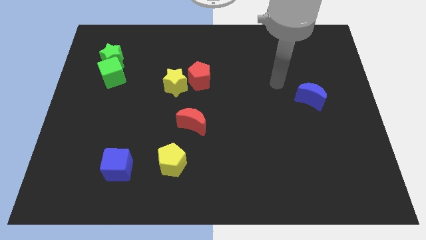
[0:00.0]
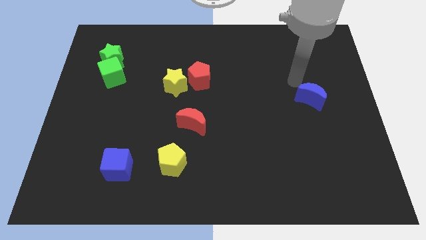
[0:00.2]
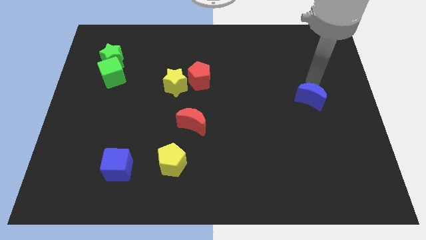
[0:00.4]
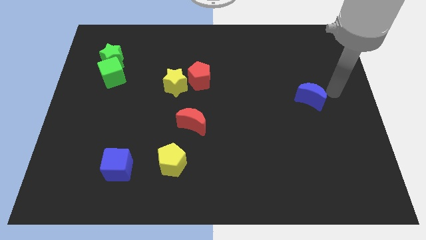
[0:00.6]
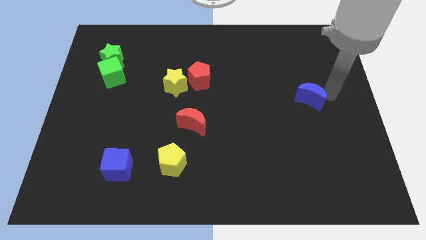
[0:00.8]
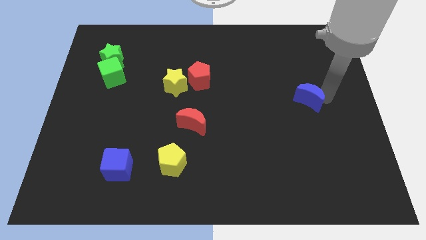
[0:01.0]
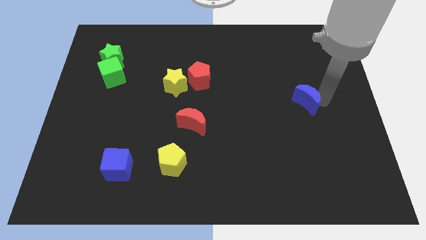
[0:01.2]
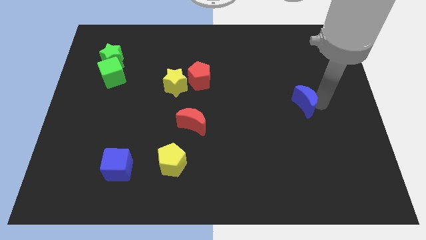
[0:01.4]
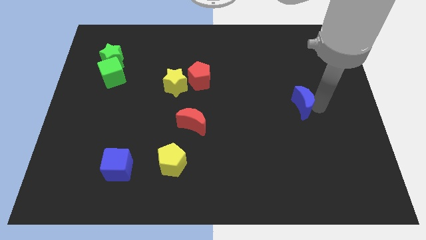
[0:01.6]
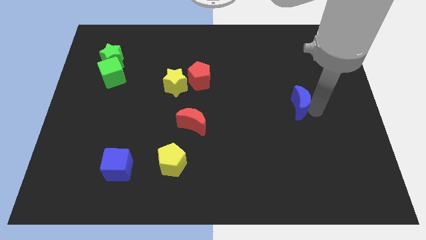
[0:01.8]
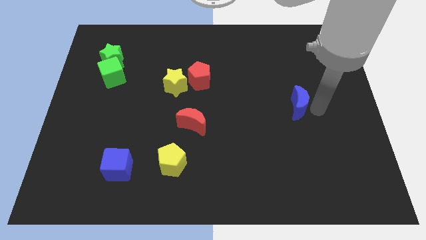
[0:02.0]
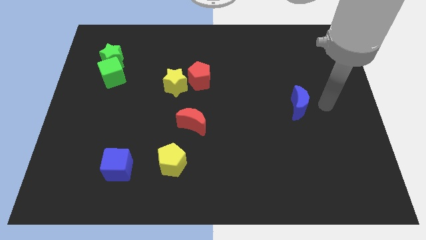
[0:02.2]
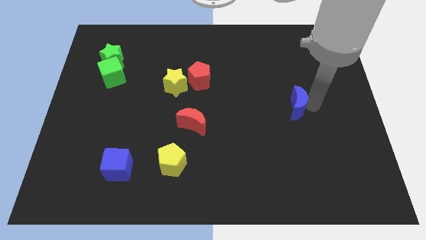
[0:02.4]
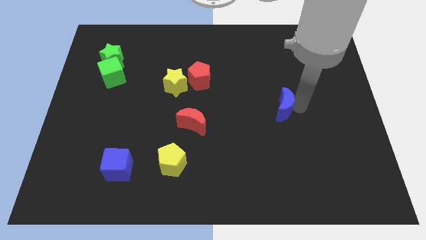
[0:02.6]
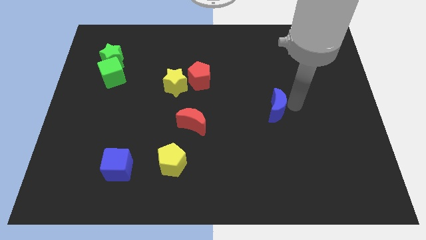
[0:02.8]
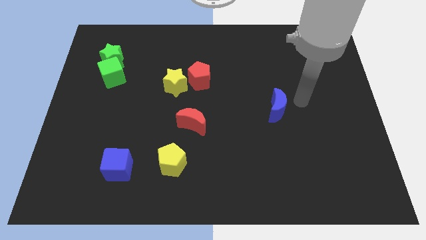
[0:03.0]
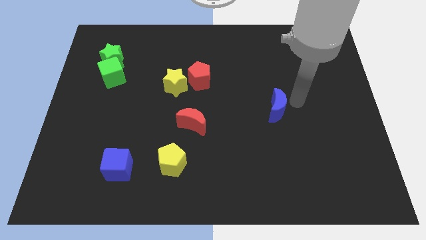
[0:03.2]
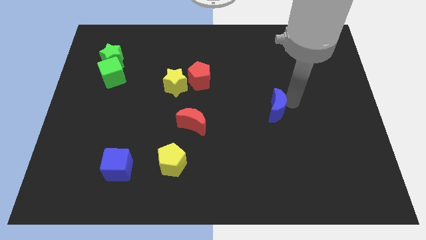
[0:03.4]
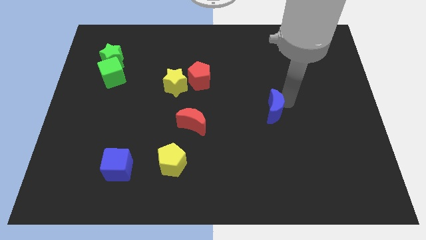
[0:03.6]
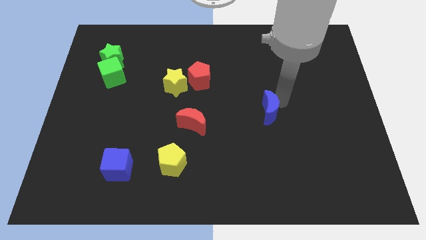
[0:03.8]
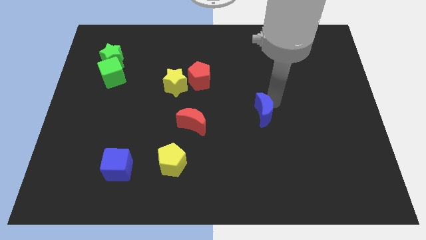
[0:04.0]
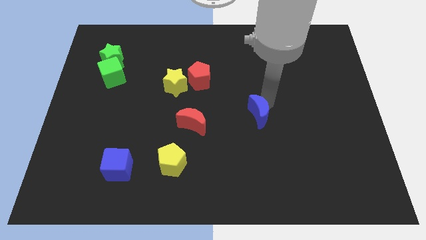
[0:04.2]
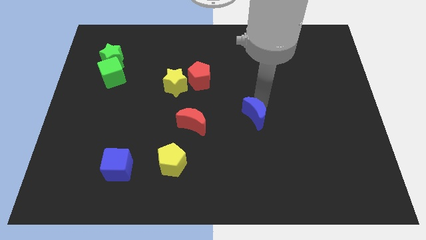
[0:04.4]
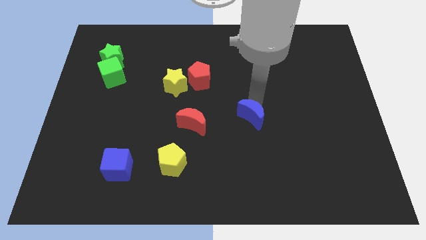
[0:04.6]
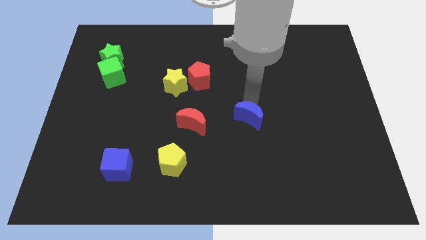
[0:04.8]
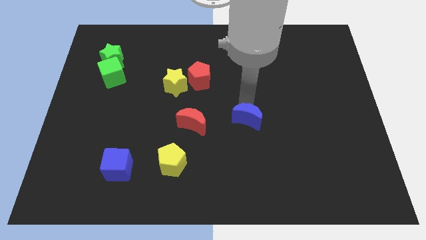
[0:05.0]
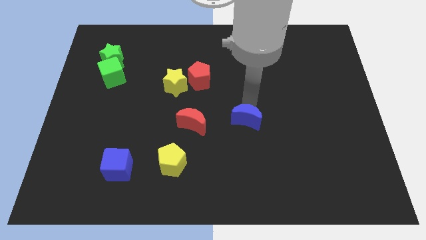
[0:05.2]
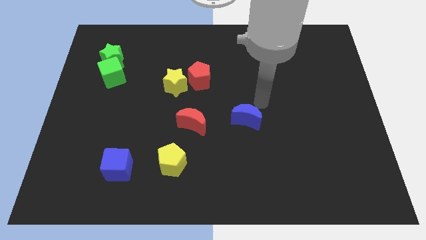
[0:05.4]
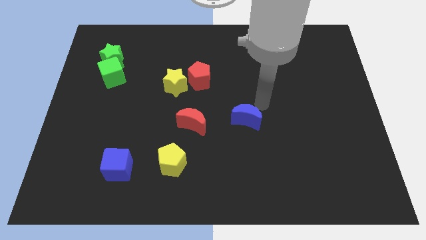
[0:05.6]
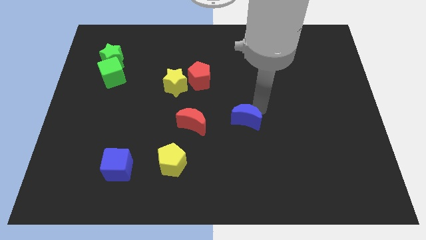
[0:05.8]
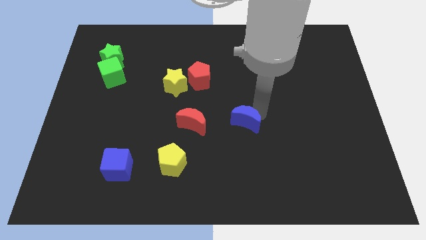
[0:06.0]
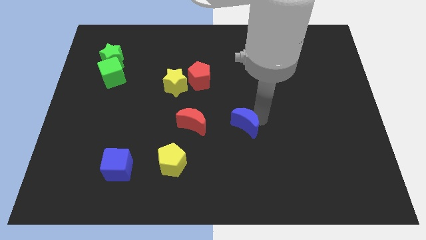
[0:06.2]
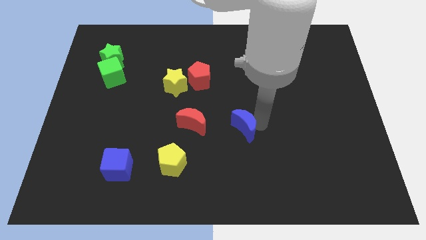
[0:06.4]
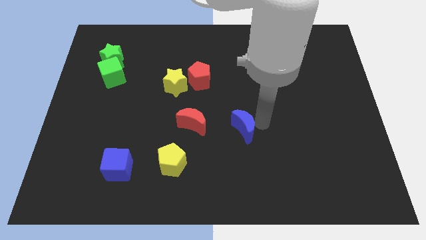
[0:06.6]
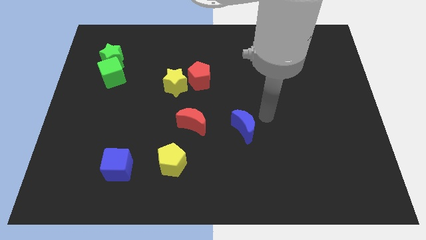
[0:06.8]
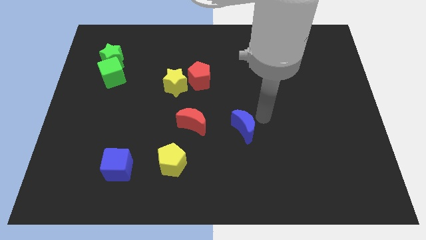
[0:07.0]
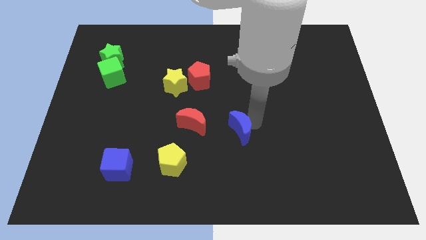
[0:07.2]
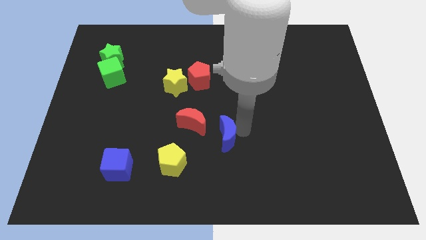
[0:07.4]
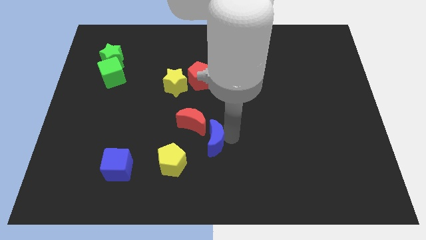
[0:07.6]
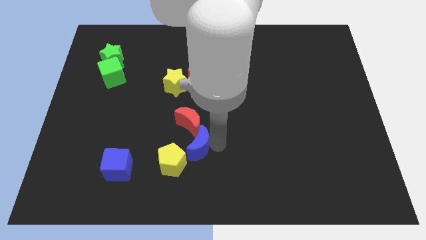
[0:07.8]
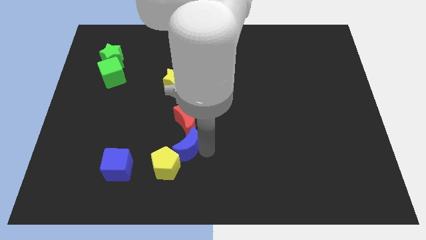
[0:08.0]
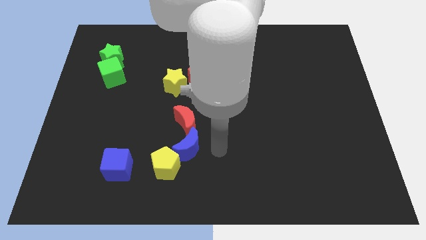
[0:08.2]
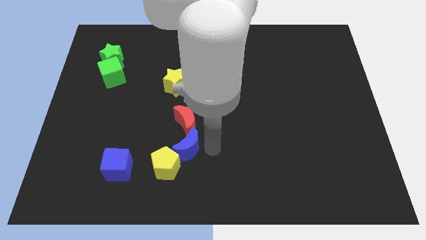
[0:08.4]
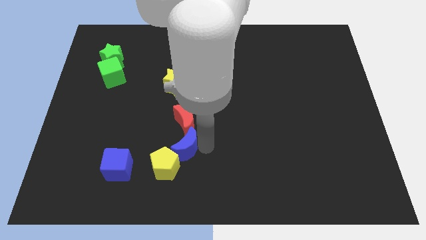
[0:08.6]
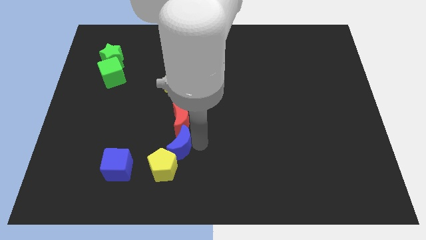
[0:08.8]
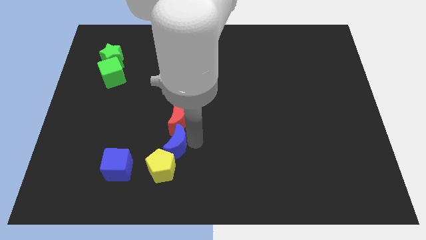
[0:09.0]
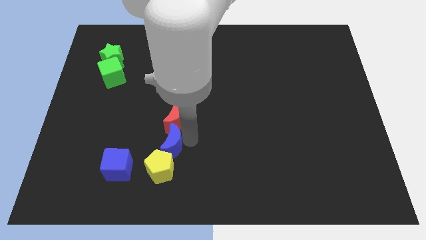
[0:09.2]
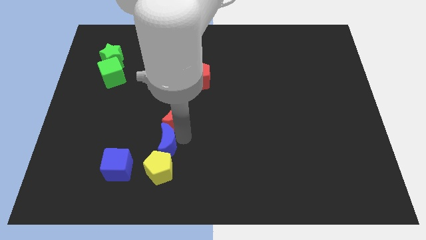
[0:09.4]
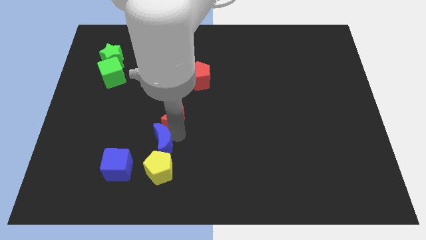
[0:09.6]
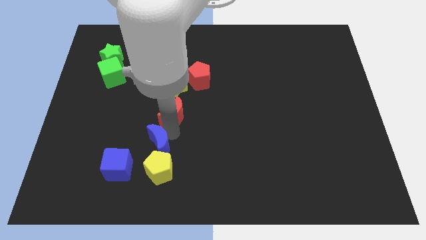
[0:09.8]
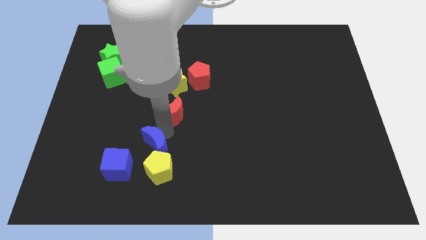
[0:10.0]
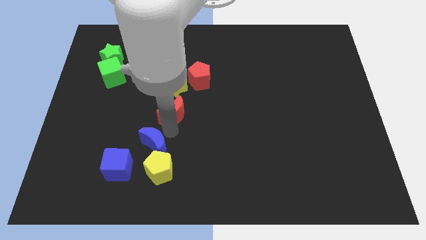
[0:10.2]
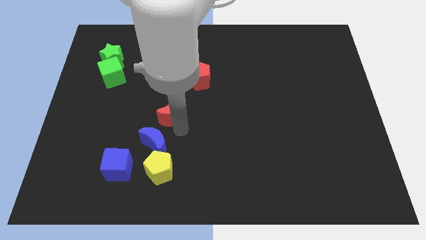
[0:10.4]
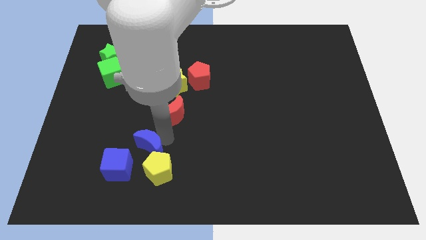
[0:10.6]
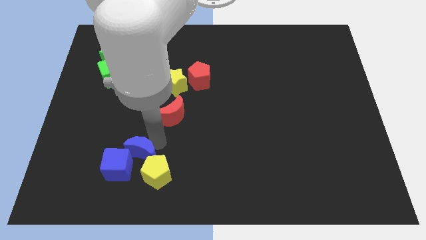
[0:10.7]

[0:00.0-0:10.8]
push the blue moon next to the blue cube

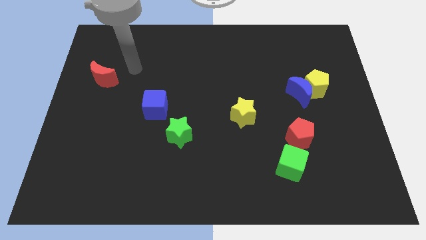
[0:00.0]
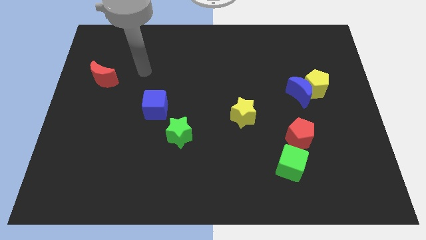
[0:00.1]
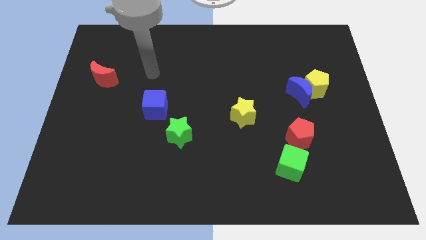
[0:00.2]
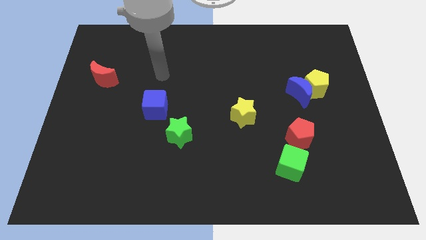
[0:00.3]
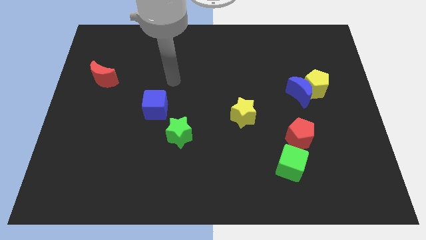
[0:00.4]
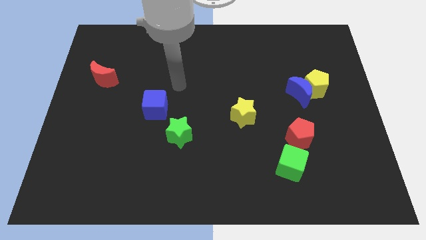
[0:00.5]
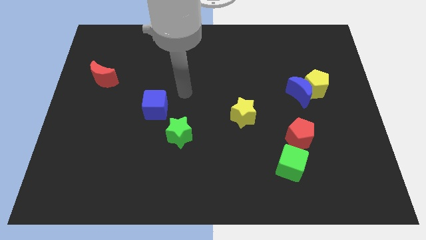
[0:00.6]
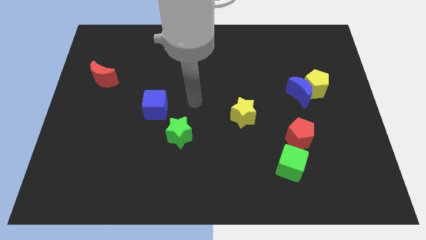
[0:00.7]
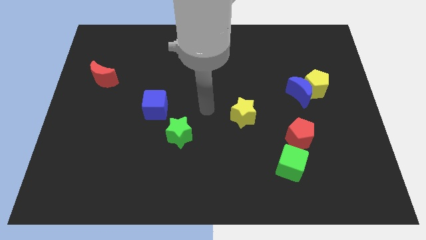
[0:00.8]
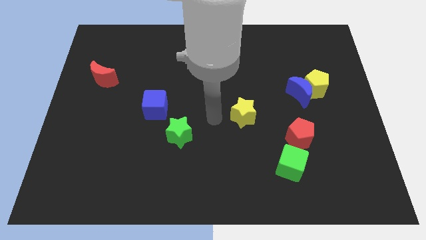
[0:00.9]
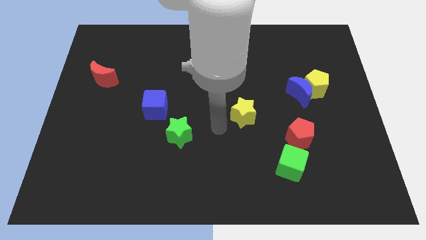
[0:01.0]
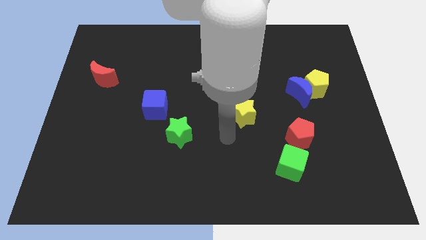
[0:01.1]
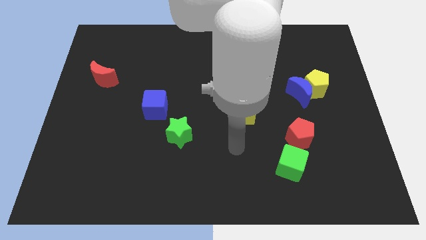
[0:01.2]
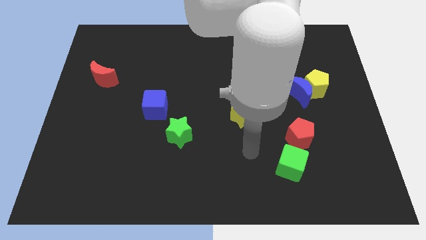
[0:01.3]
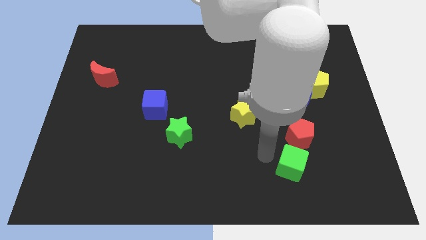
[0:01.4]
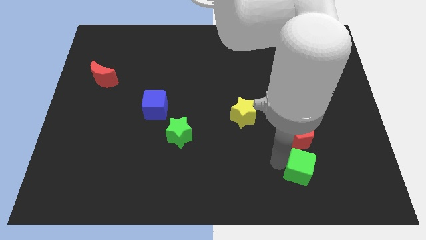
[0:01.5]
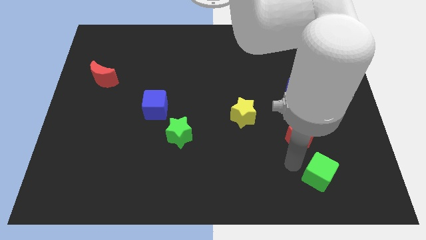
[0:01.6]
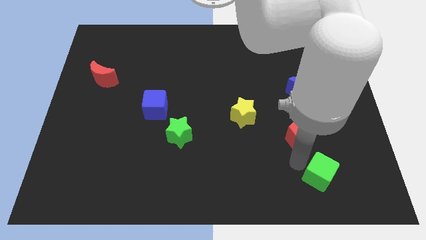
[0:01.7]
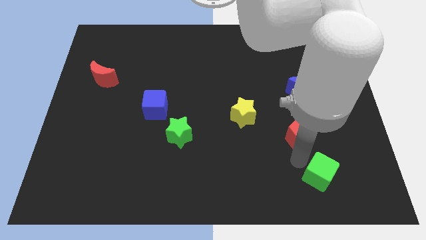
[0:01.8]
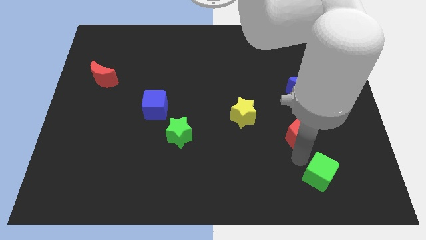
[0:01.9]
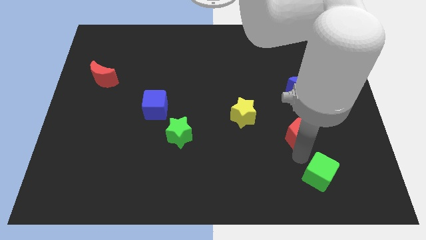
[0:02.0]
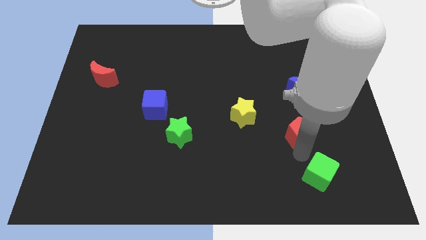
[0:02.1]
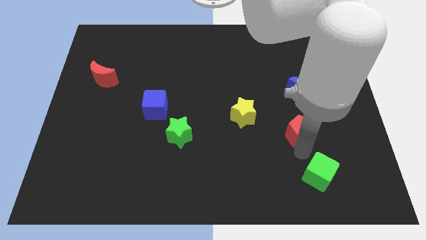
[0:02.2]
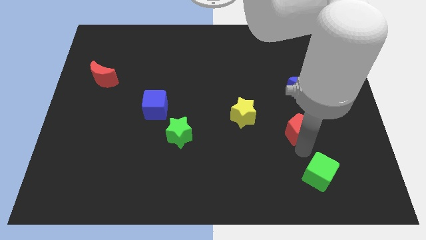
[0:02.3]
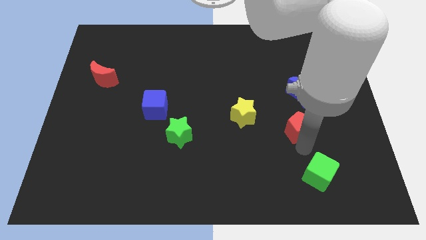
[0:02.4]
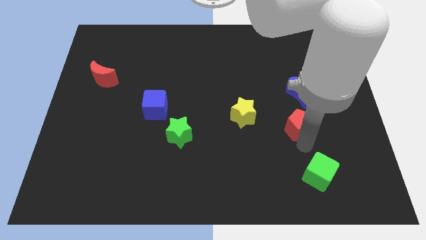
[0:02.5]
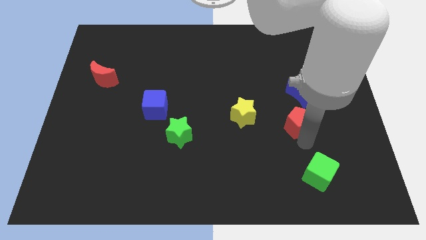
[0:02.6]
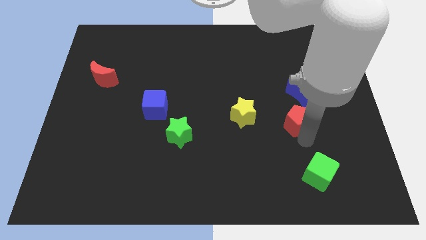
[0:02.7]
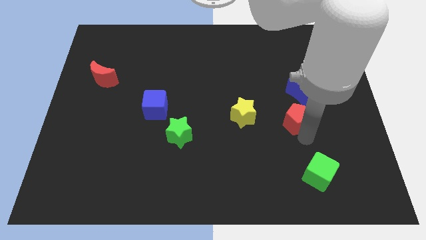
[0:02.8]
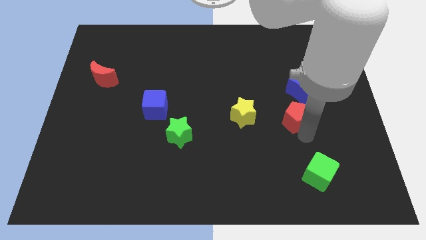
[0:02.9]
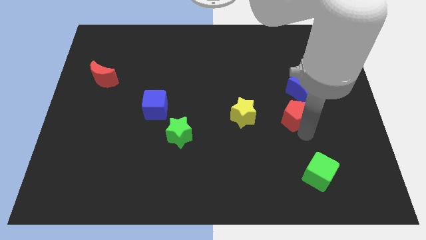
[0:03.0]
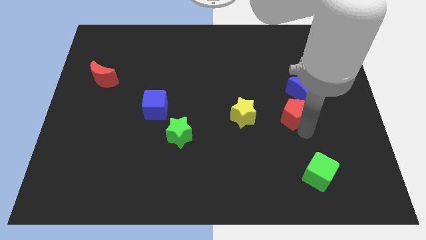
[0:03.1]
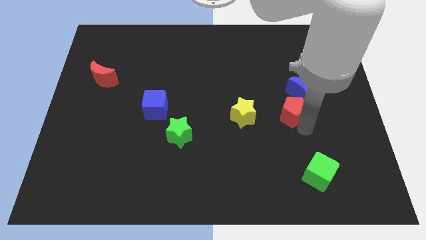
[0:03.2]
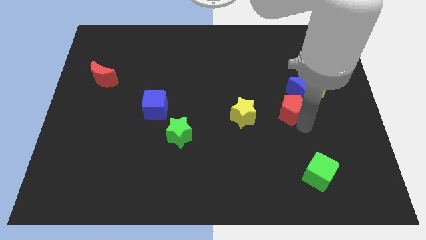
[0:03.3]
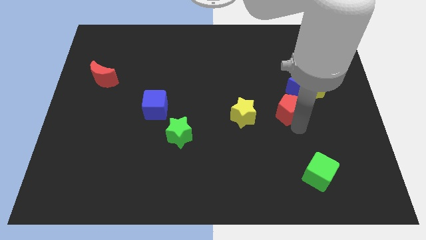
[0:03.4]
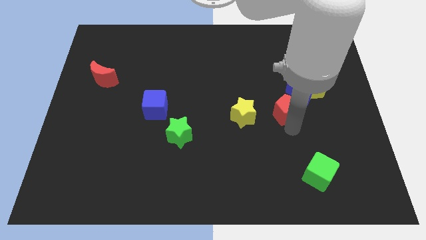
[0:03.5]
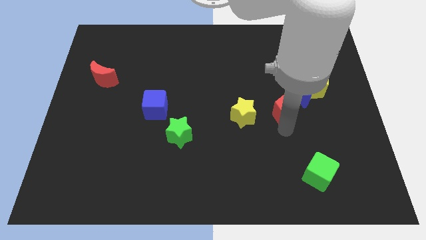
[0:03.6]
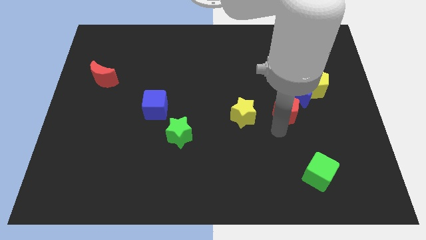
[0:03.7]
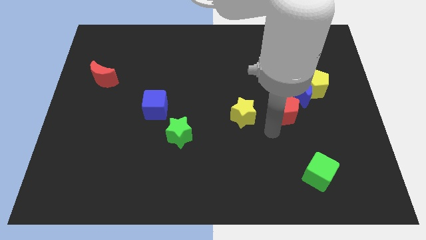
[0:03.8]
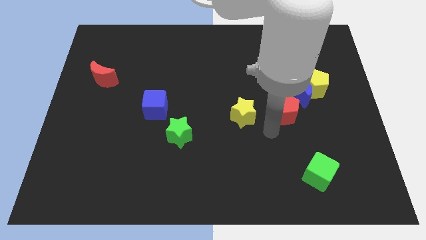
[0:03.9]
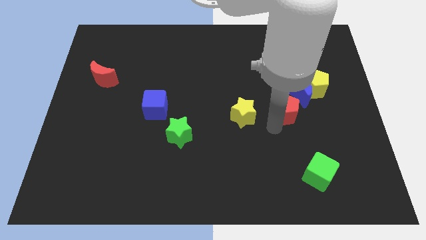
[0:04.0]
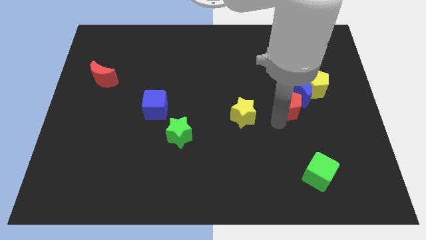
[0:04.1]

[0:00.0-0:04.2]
put the red pentagon towards the blue moon
